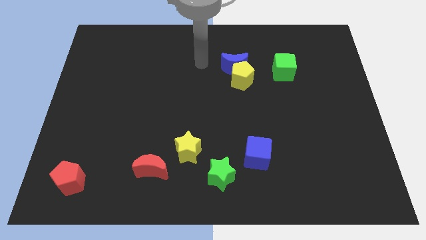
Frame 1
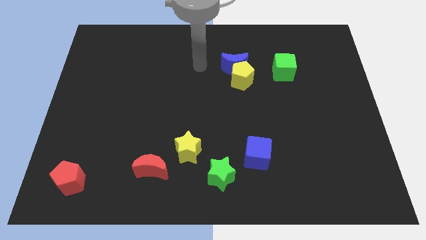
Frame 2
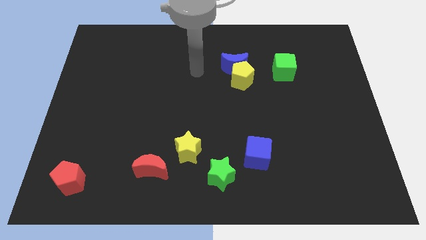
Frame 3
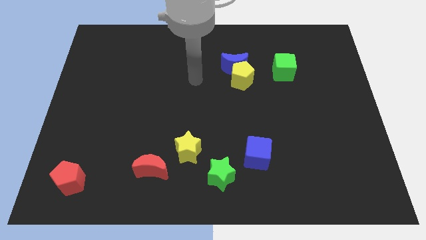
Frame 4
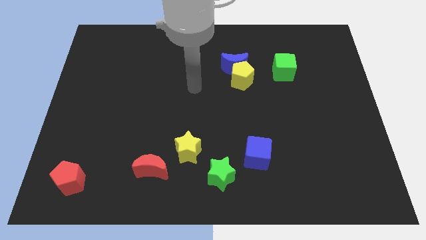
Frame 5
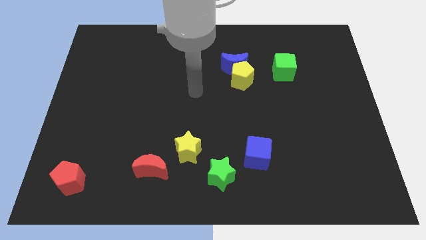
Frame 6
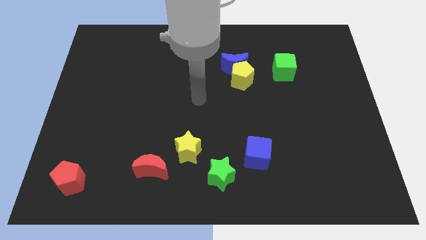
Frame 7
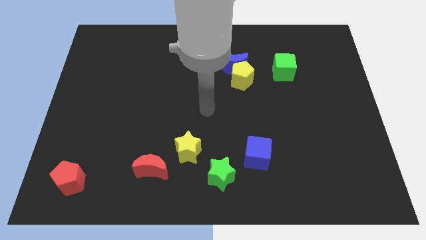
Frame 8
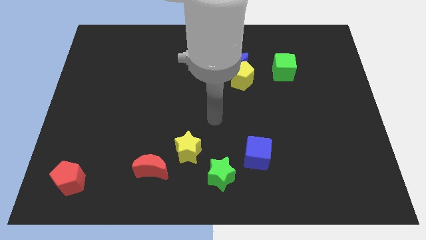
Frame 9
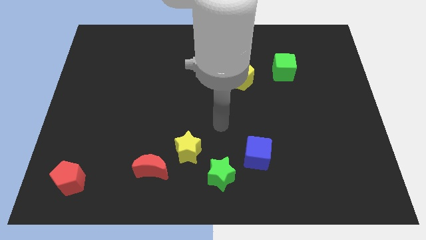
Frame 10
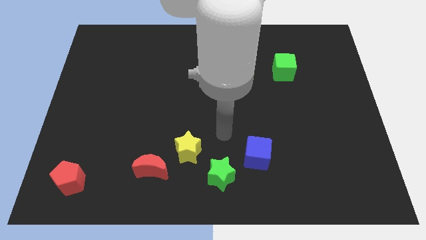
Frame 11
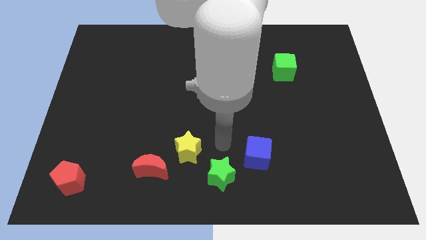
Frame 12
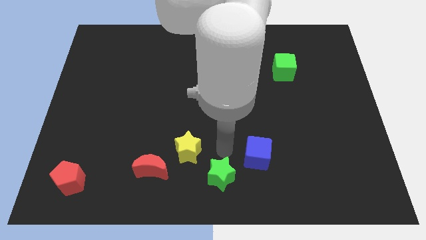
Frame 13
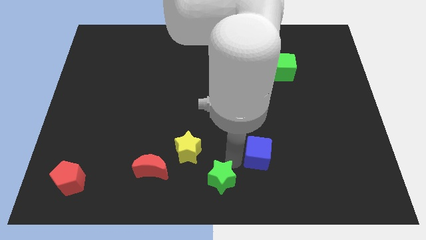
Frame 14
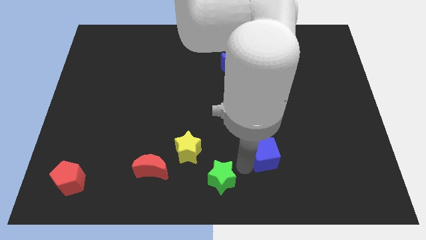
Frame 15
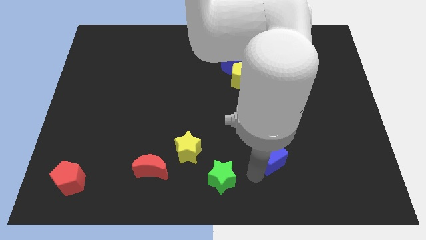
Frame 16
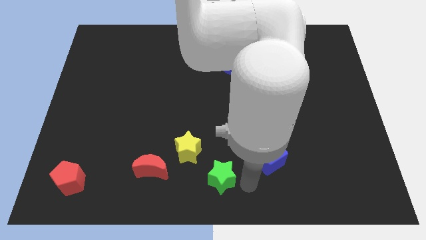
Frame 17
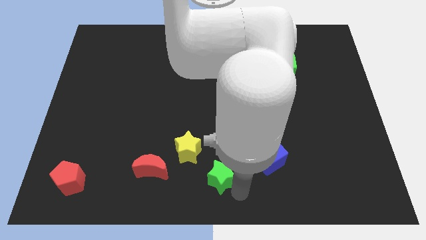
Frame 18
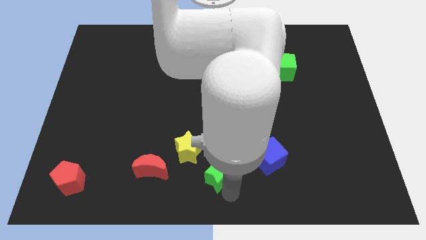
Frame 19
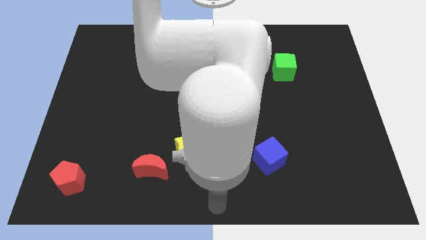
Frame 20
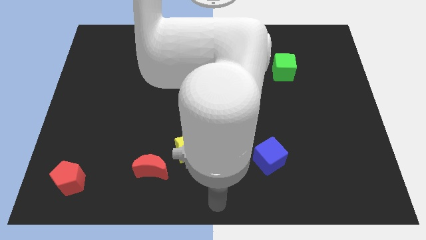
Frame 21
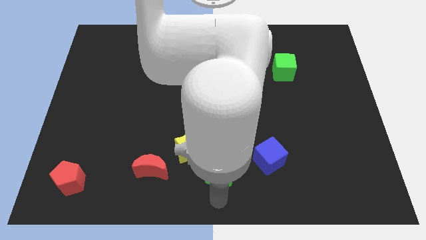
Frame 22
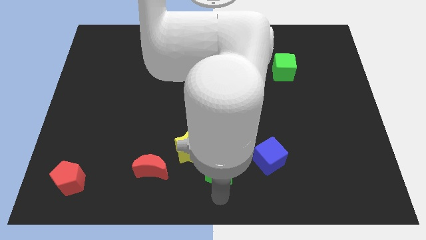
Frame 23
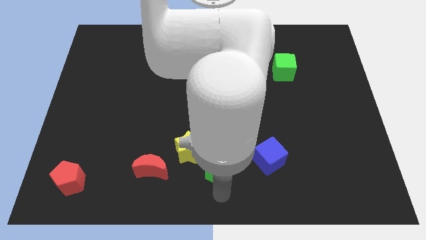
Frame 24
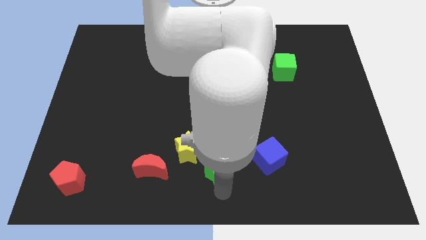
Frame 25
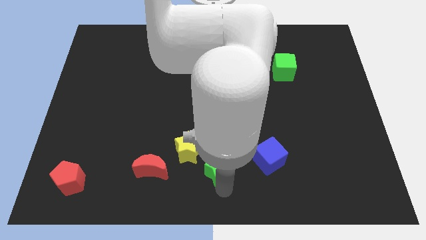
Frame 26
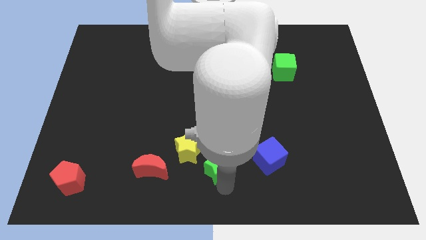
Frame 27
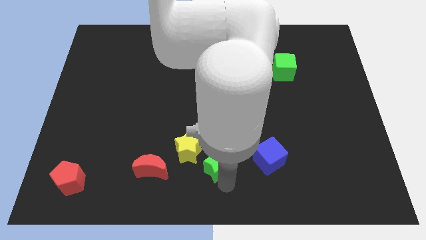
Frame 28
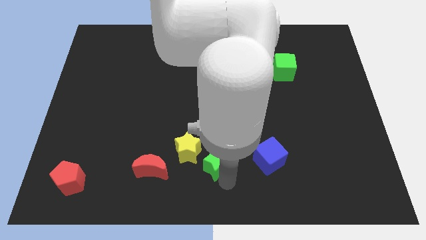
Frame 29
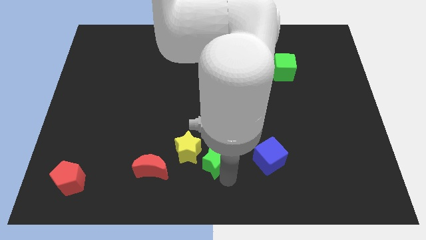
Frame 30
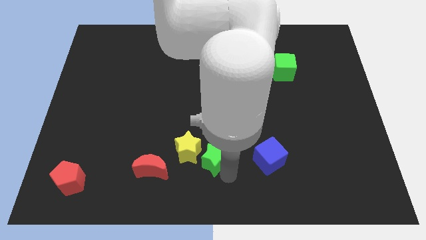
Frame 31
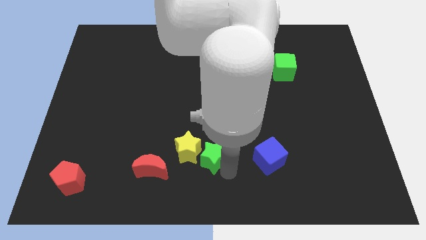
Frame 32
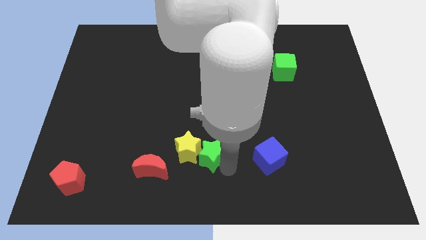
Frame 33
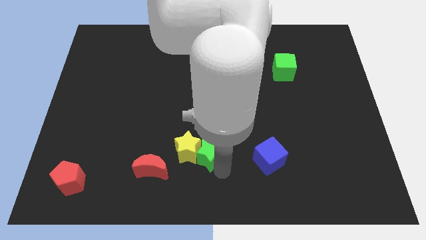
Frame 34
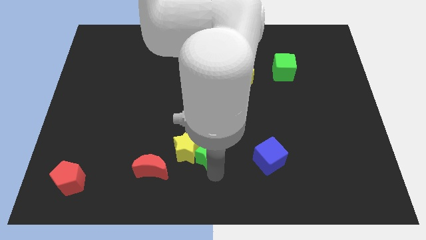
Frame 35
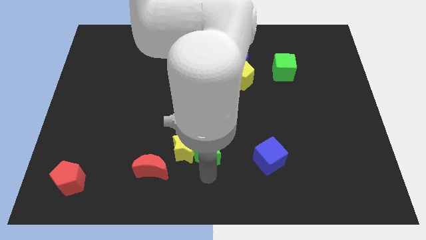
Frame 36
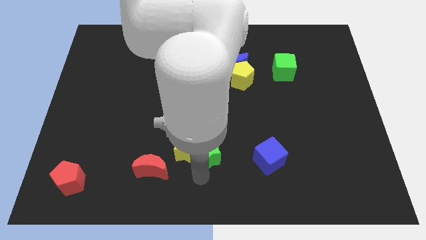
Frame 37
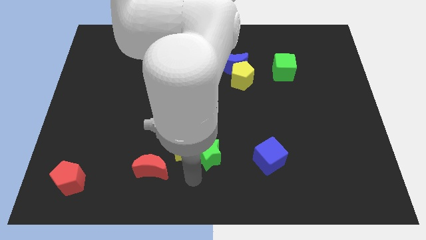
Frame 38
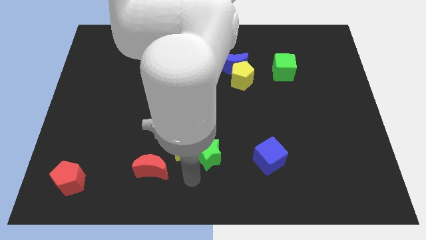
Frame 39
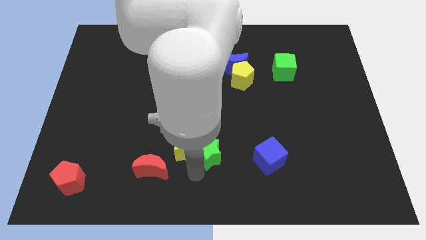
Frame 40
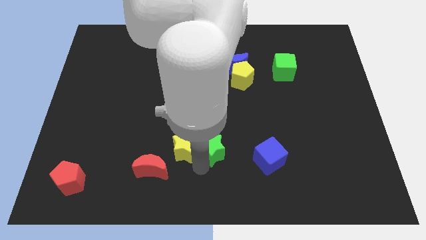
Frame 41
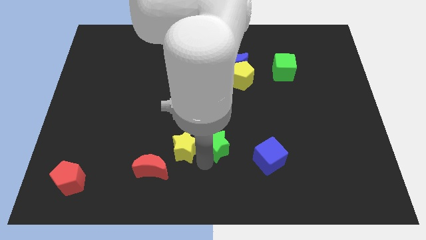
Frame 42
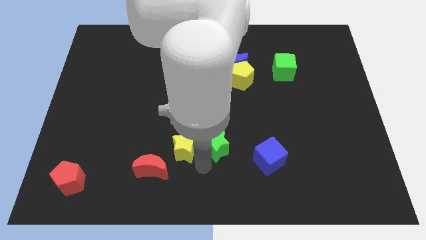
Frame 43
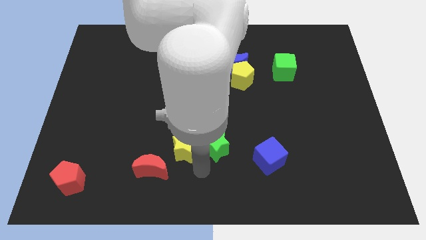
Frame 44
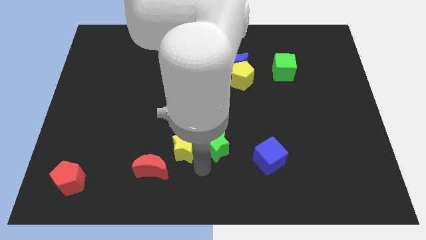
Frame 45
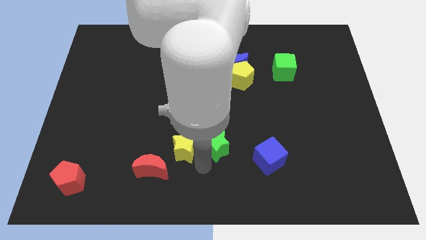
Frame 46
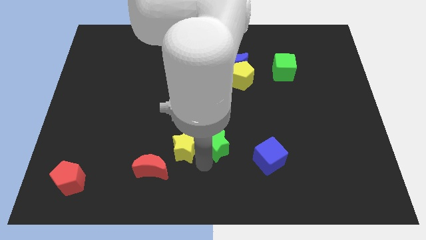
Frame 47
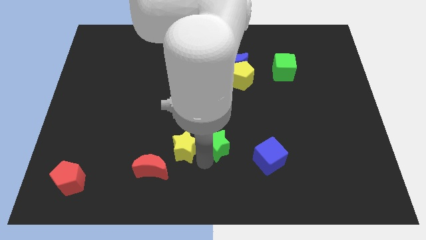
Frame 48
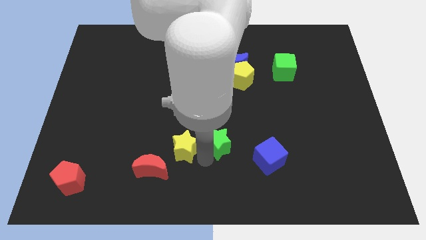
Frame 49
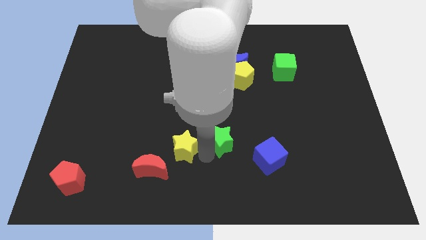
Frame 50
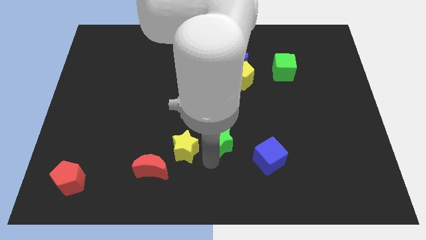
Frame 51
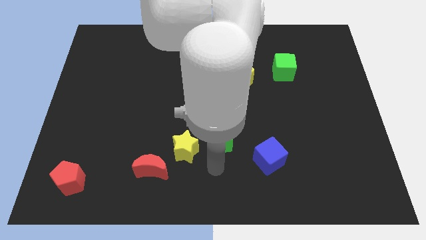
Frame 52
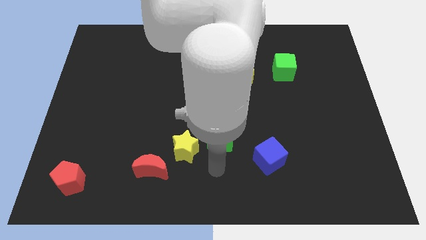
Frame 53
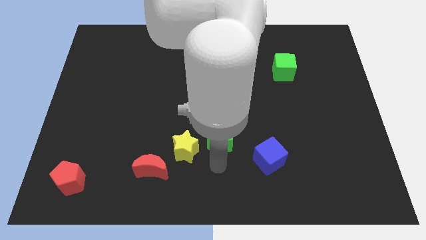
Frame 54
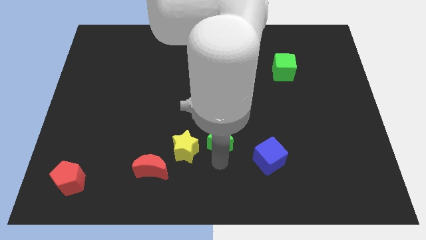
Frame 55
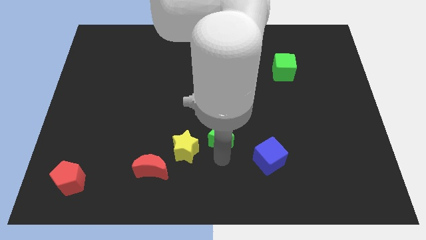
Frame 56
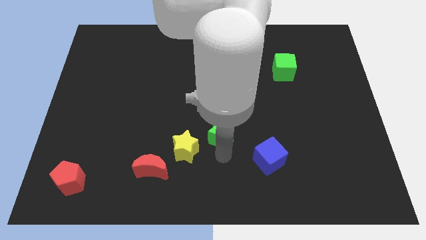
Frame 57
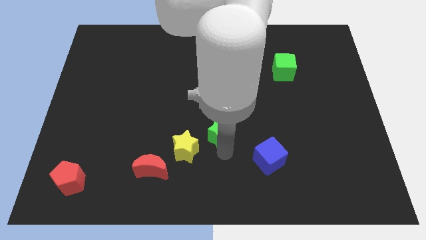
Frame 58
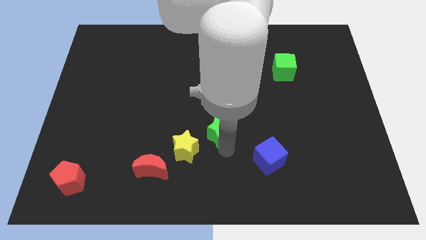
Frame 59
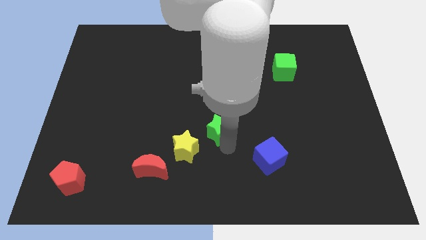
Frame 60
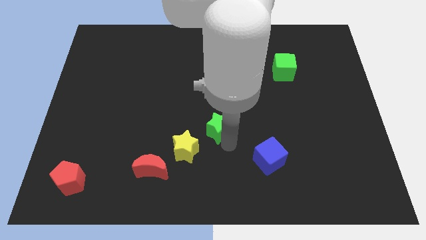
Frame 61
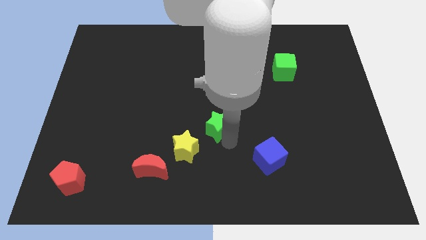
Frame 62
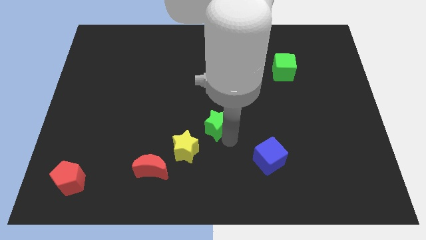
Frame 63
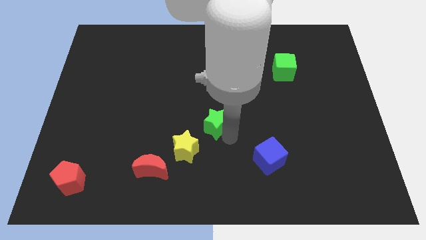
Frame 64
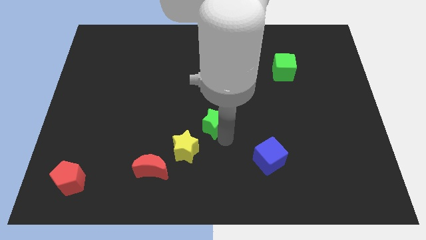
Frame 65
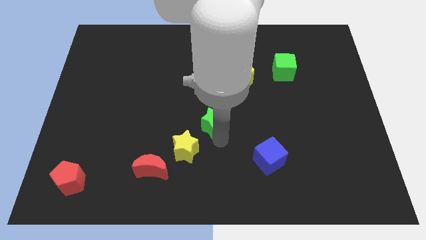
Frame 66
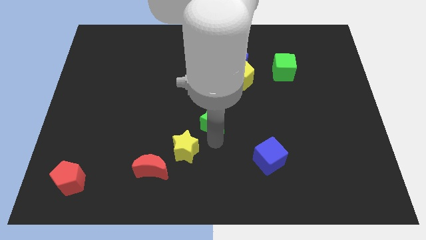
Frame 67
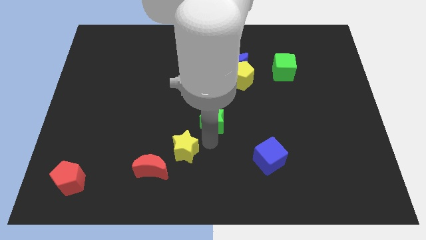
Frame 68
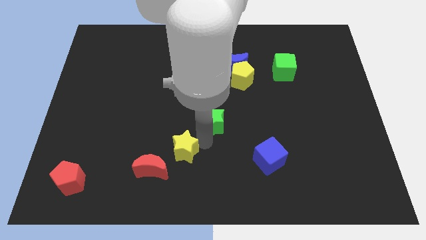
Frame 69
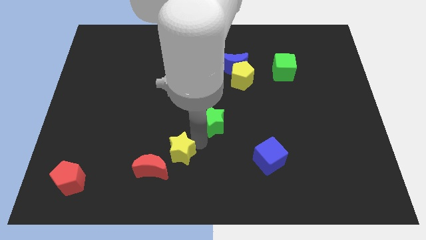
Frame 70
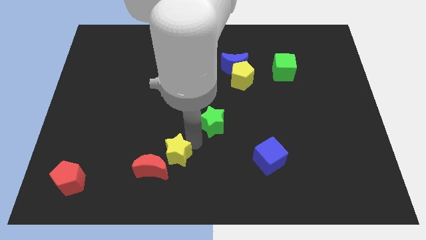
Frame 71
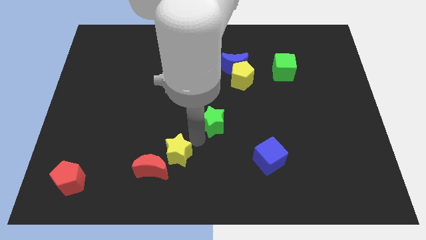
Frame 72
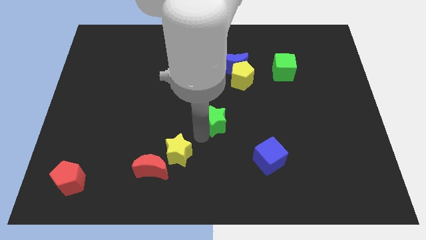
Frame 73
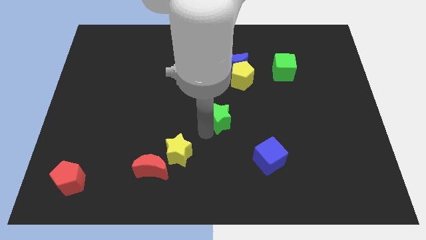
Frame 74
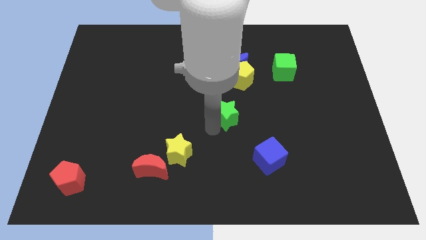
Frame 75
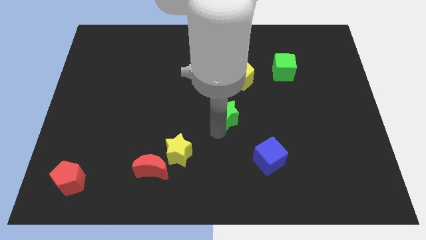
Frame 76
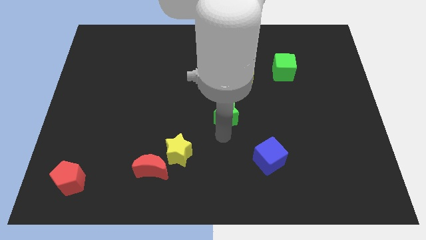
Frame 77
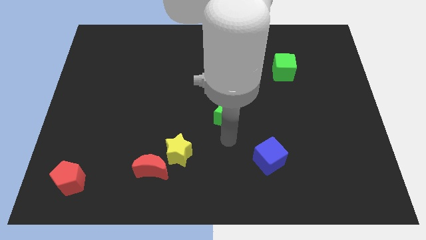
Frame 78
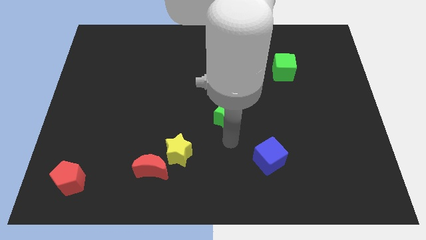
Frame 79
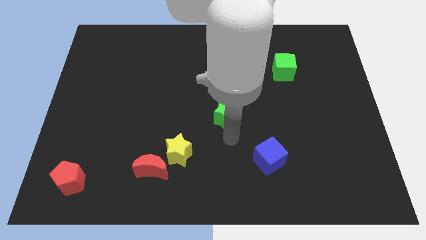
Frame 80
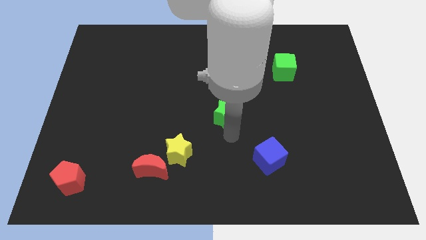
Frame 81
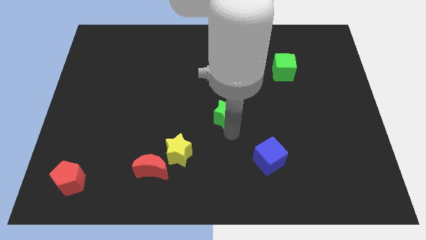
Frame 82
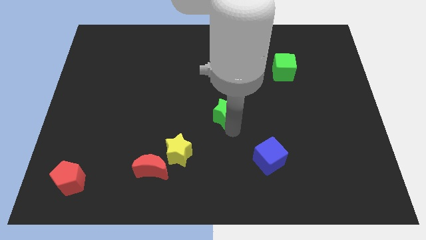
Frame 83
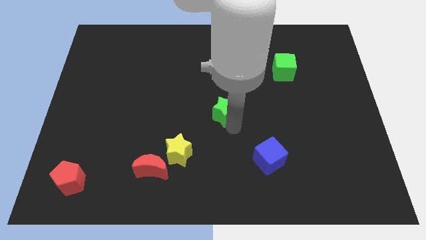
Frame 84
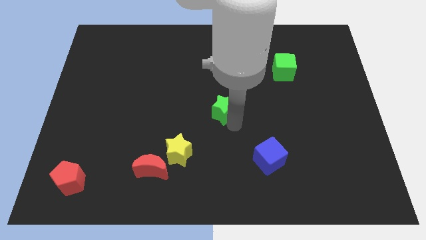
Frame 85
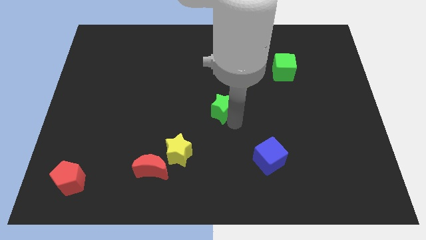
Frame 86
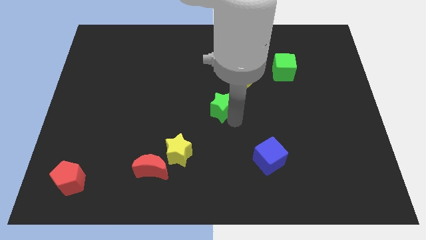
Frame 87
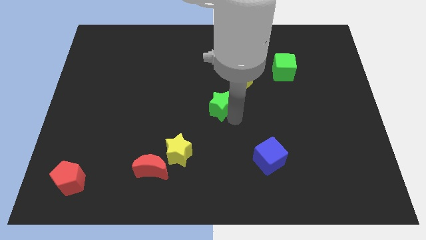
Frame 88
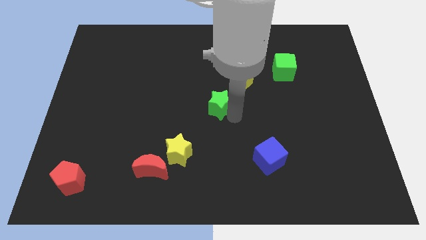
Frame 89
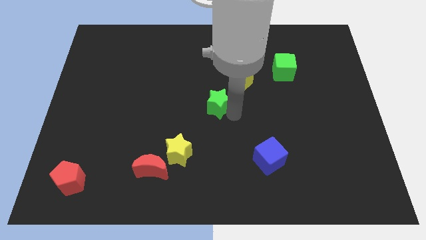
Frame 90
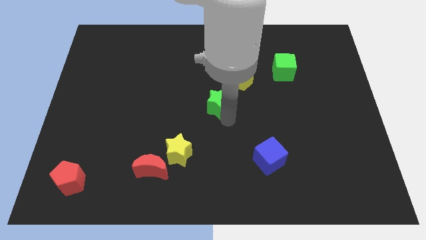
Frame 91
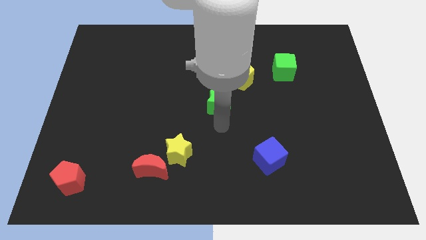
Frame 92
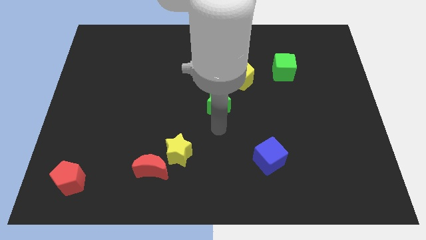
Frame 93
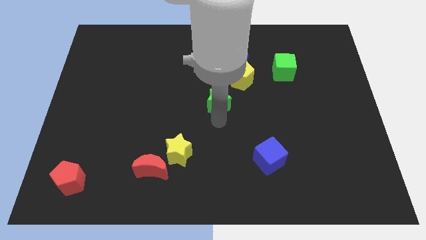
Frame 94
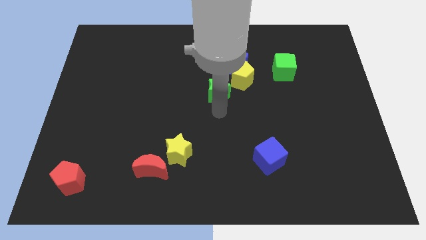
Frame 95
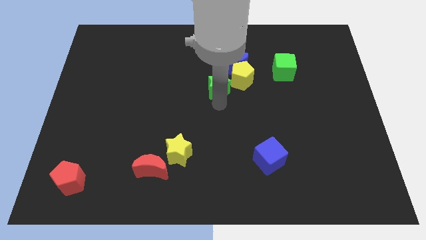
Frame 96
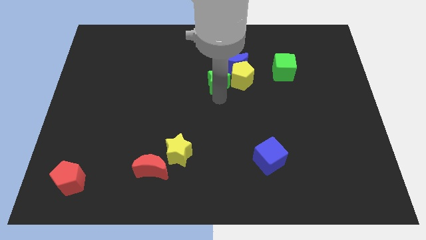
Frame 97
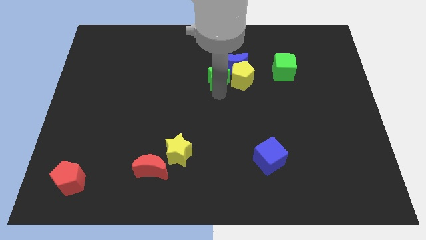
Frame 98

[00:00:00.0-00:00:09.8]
slide the green star to the blue moon
